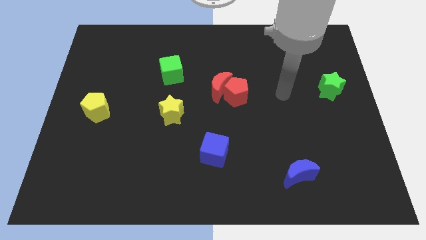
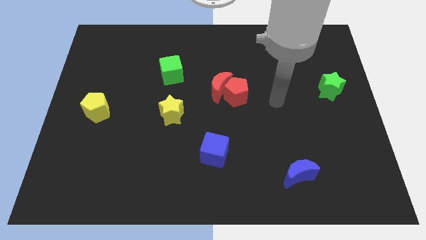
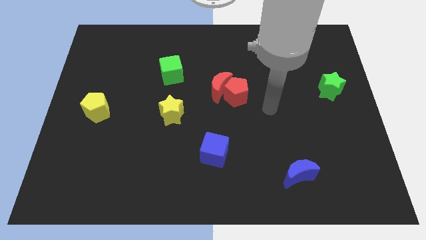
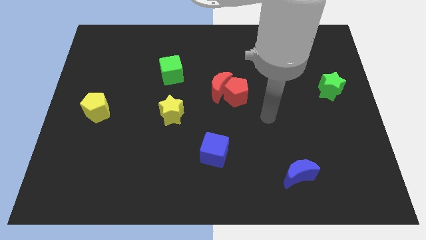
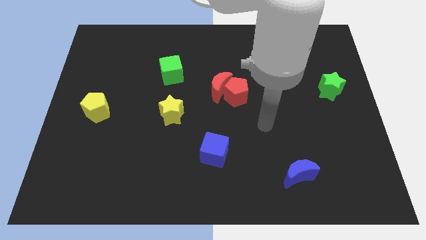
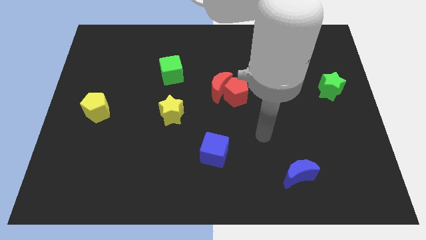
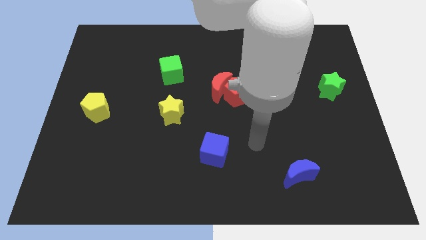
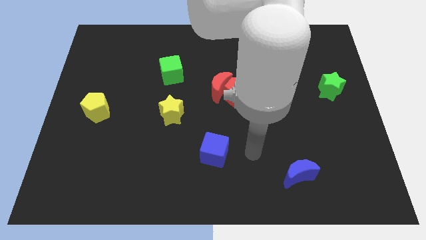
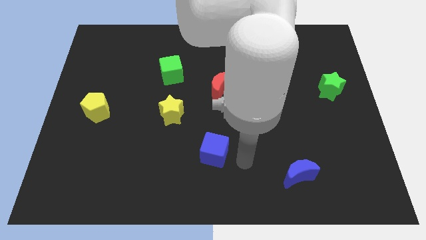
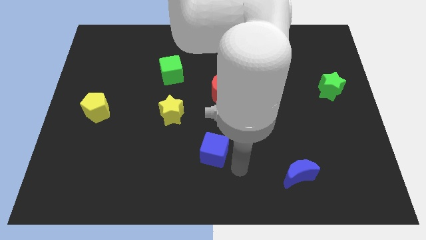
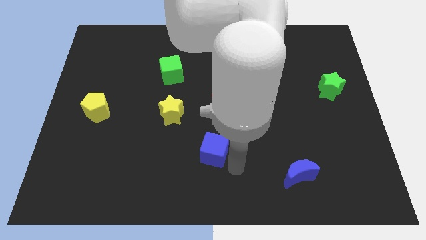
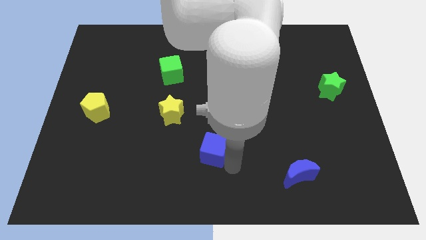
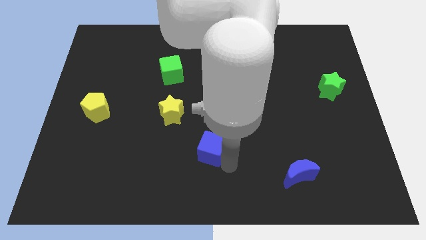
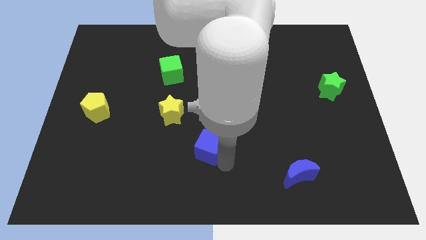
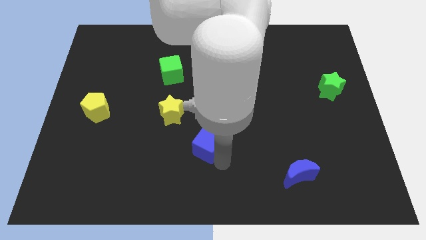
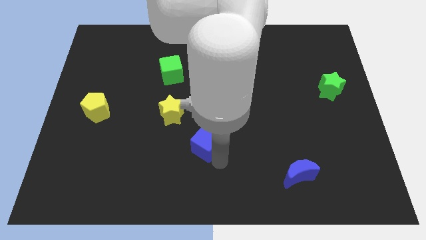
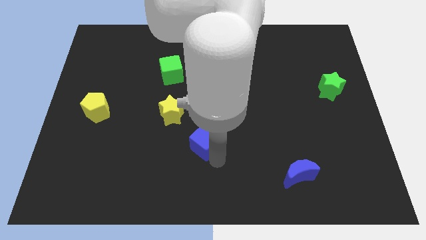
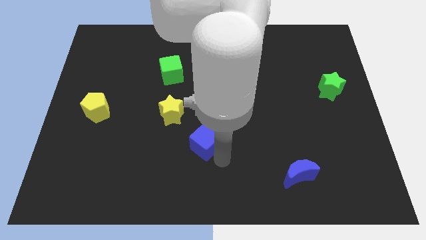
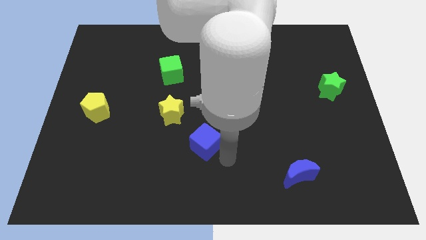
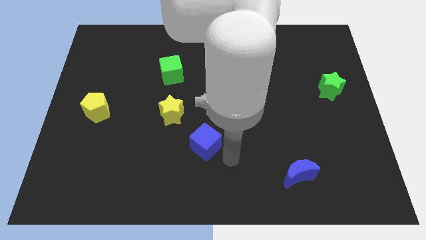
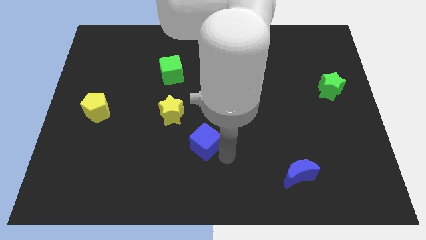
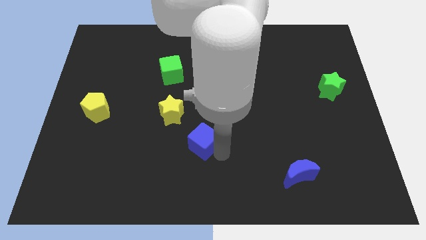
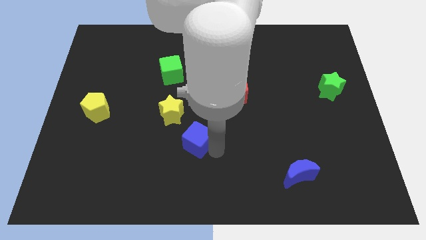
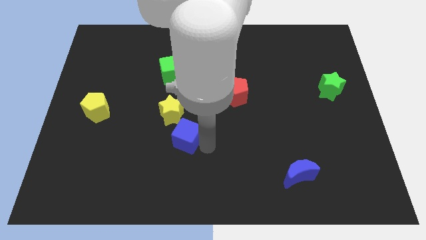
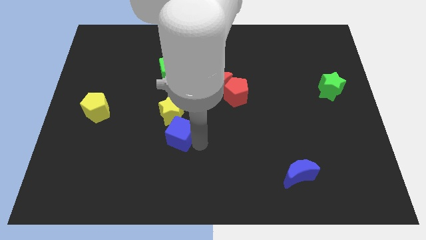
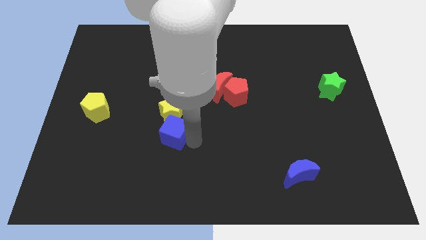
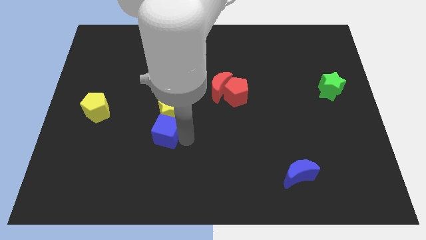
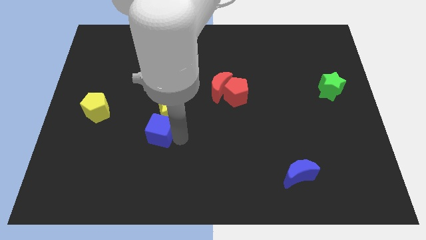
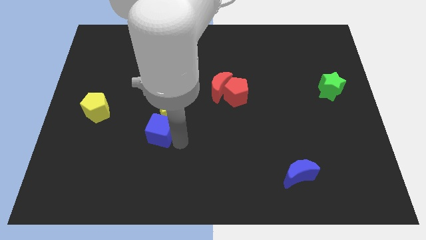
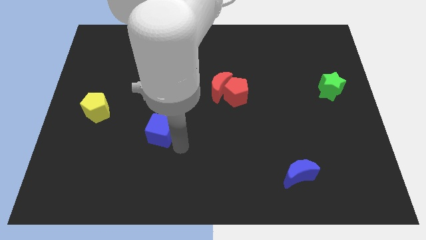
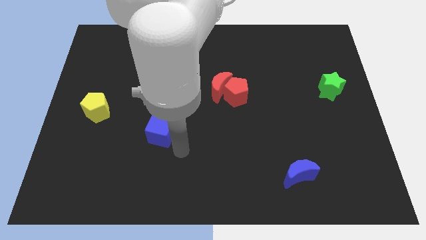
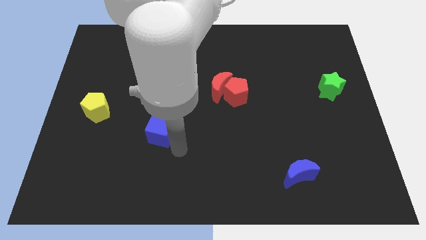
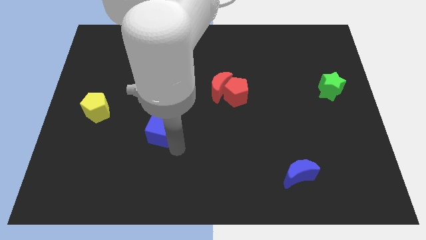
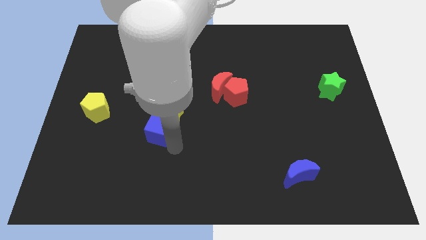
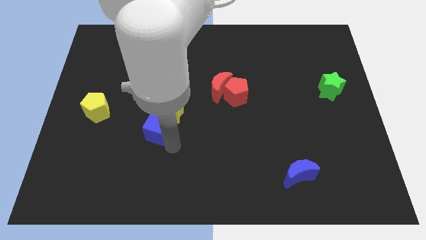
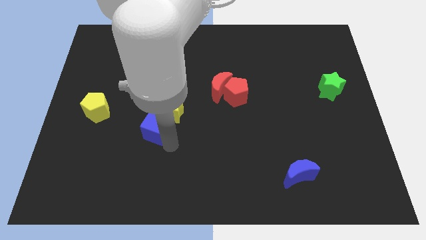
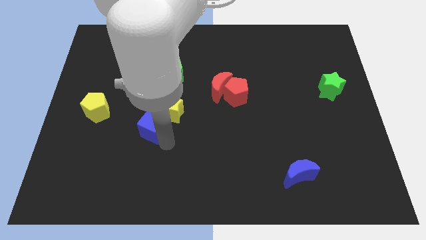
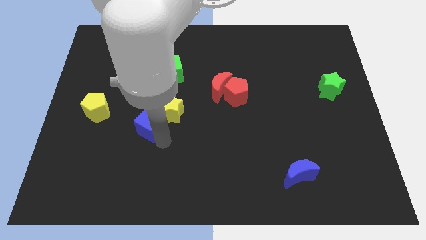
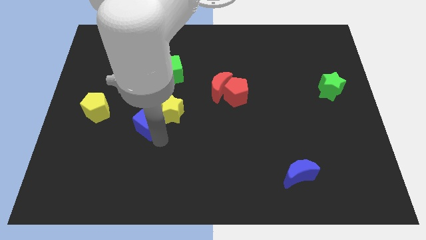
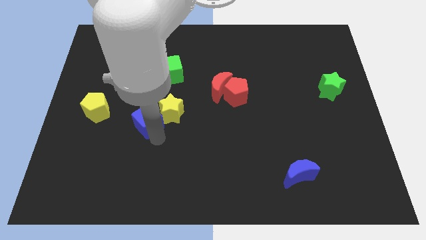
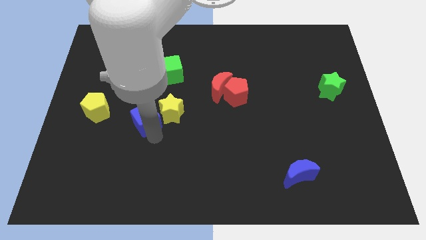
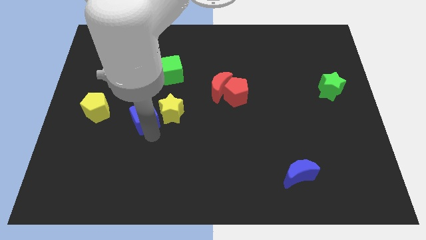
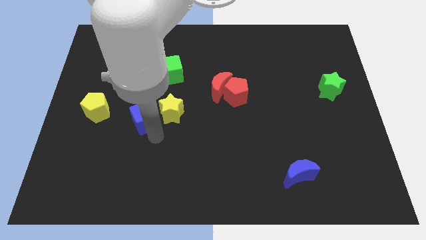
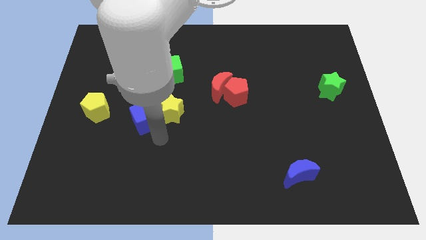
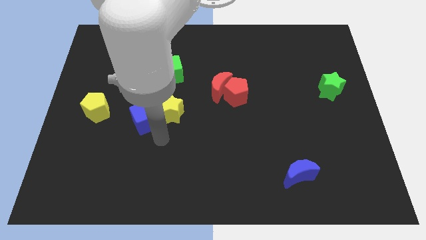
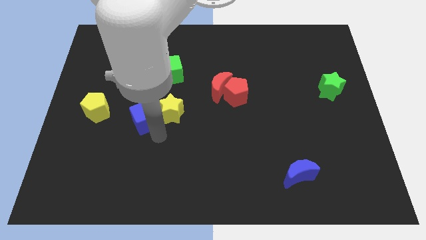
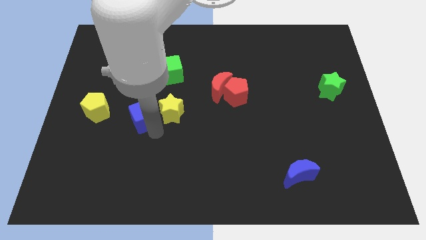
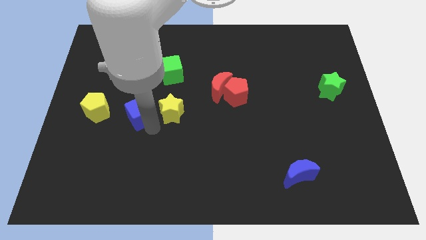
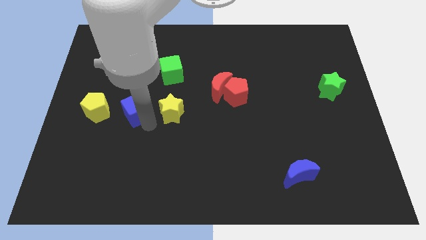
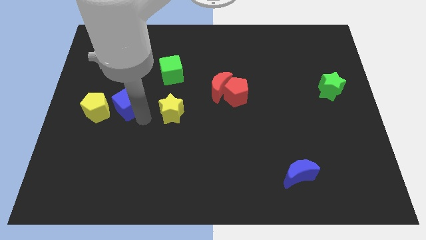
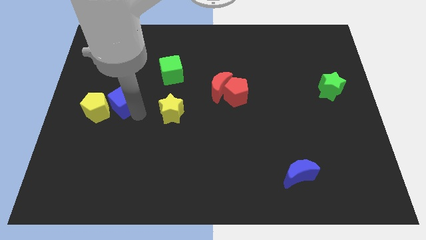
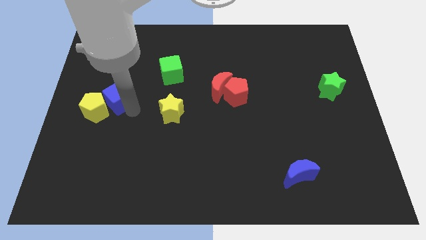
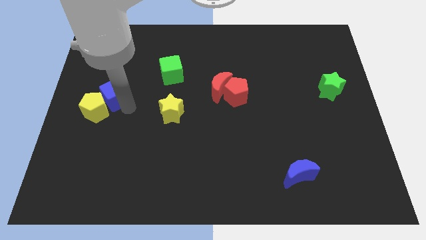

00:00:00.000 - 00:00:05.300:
slide the blue cube to the top side of the yellow pentagon

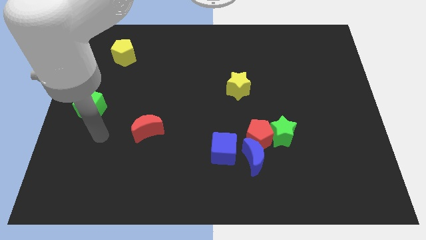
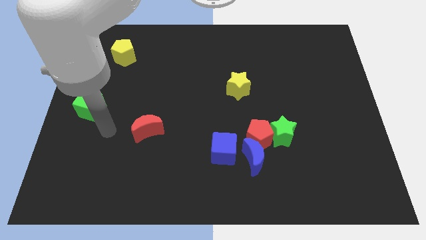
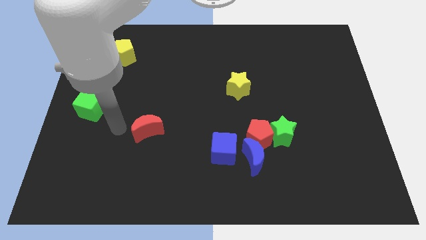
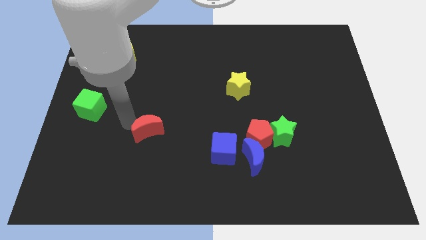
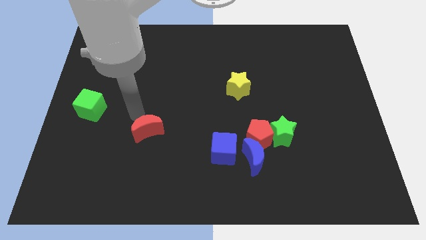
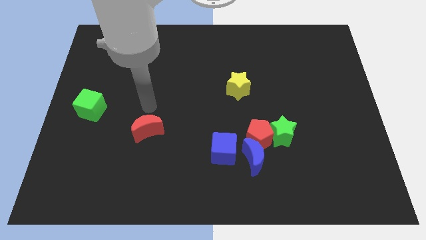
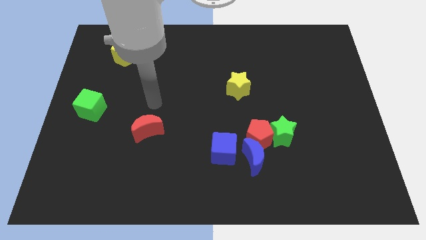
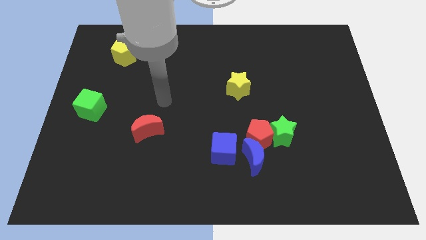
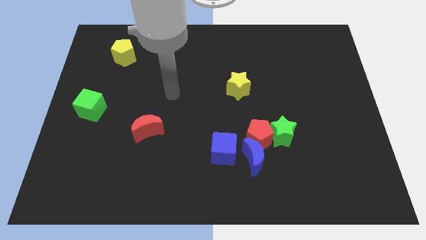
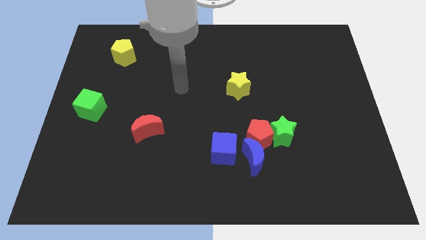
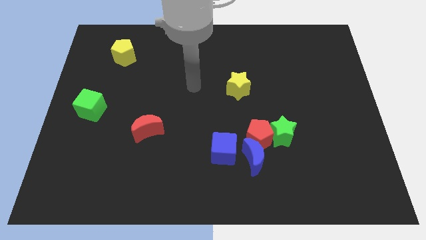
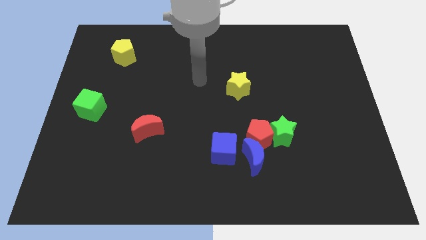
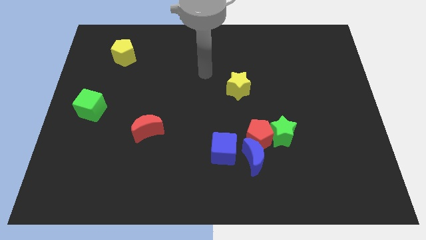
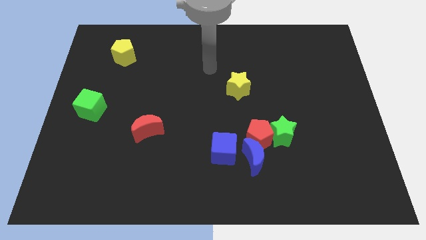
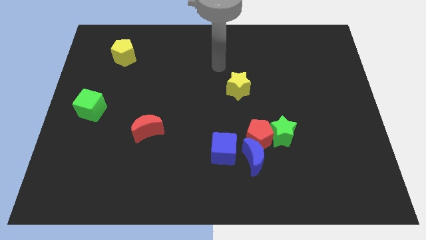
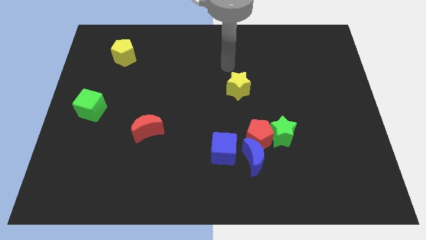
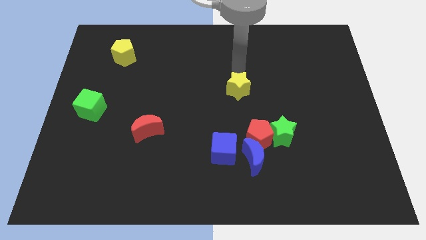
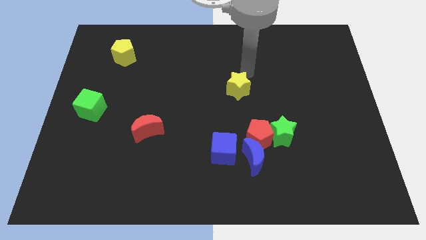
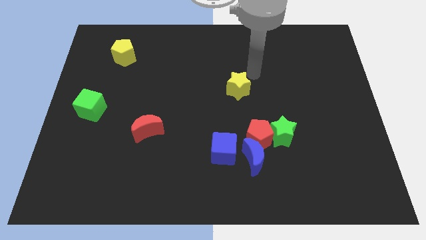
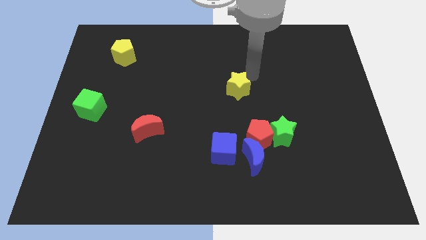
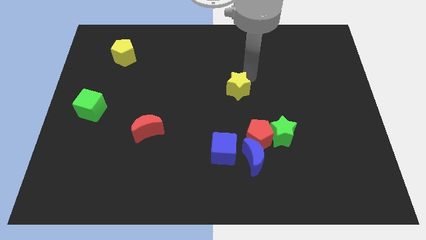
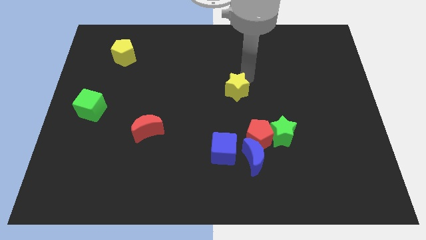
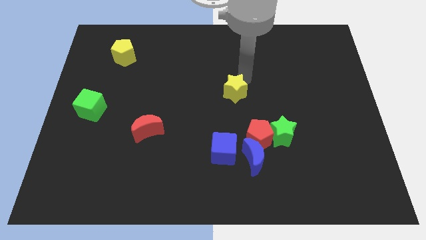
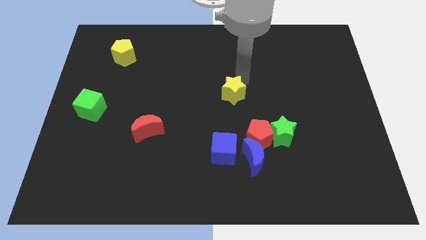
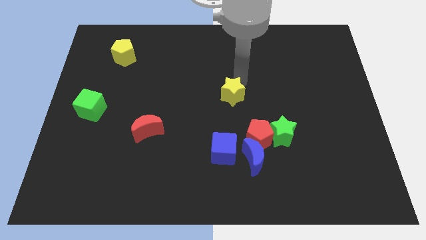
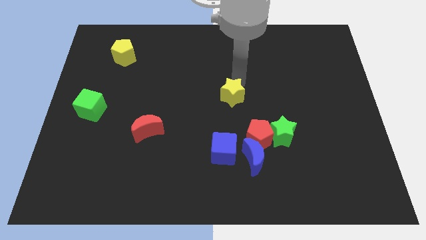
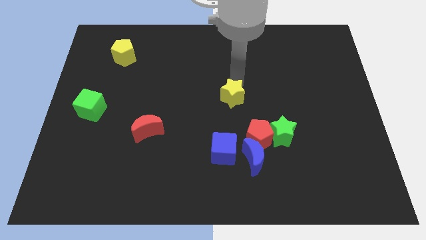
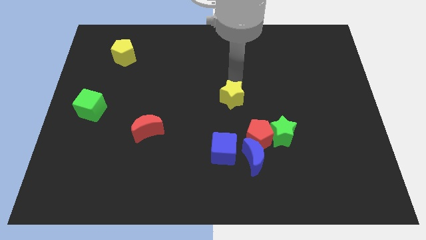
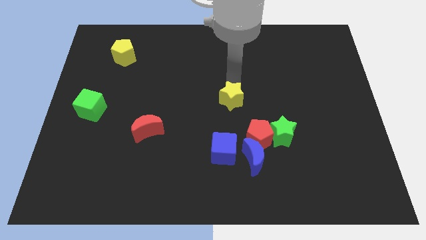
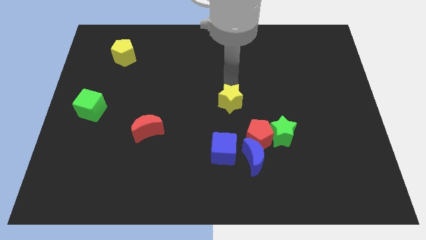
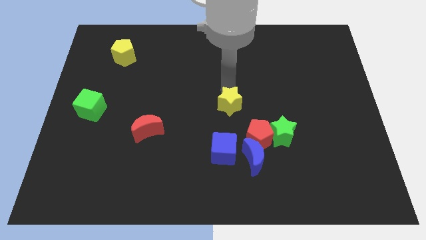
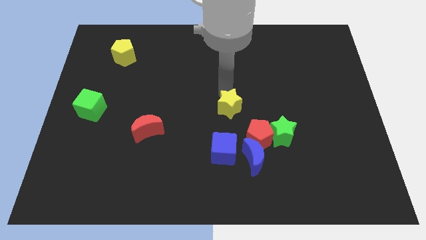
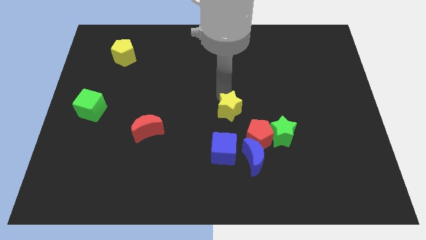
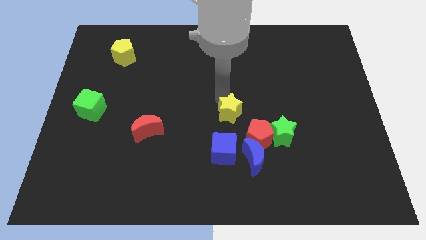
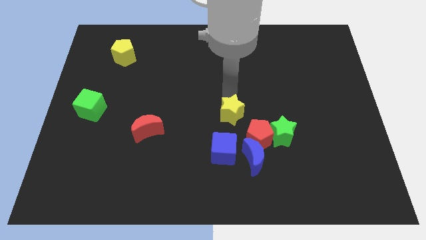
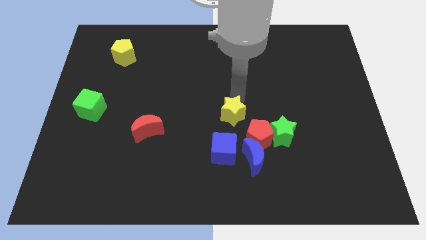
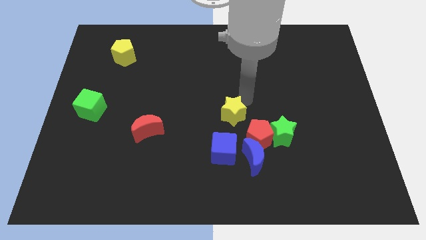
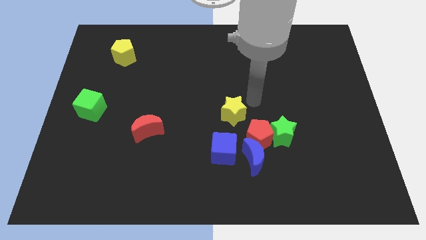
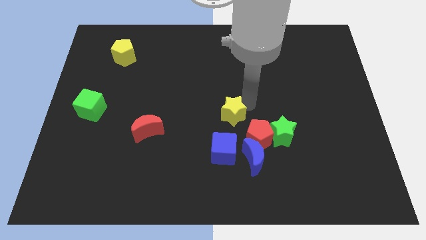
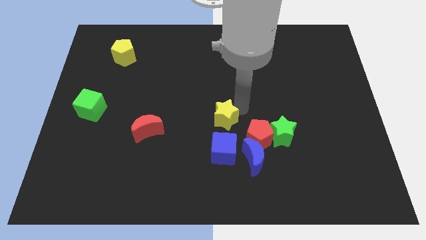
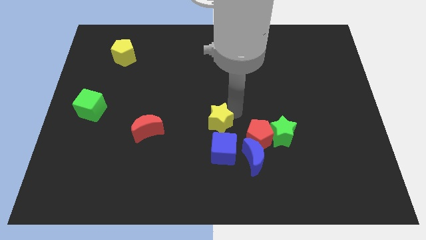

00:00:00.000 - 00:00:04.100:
put the yellow star diagonally up and to the left of the blue cube
